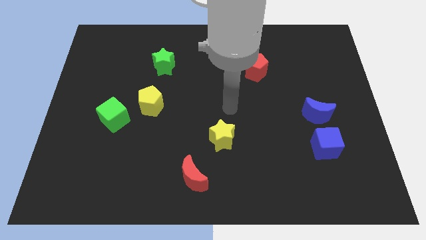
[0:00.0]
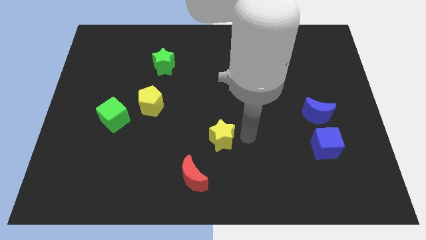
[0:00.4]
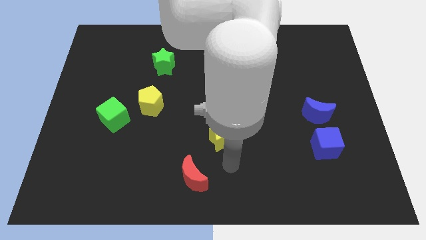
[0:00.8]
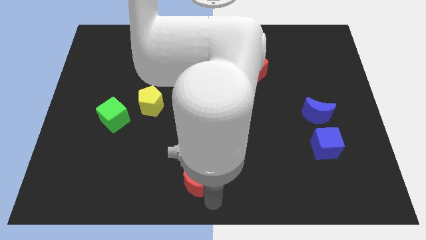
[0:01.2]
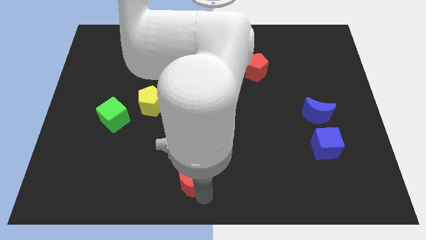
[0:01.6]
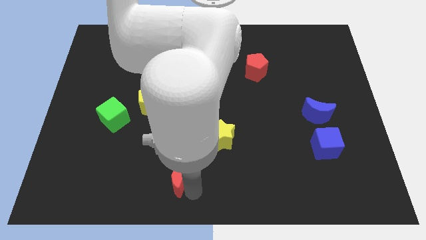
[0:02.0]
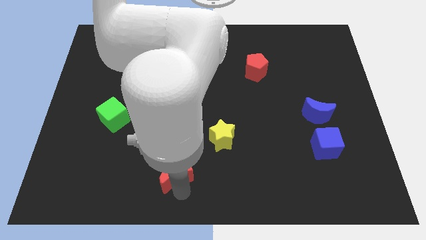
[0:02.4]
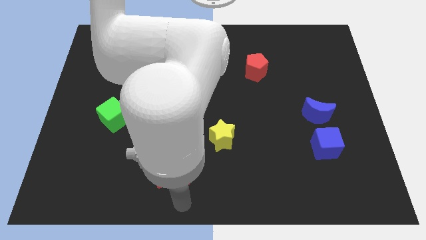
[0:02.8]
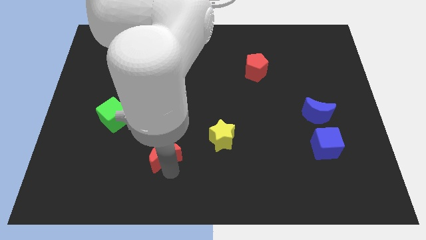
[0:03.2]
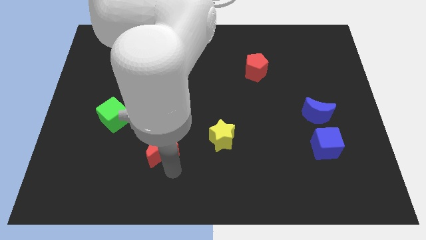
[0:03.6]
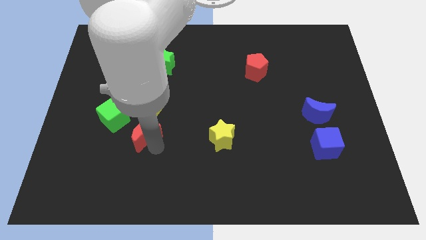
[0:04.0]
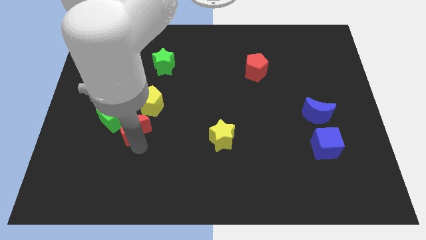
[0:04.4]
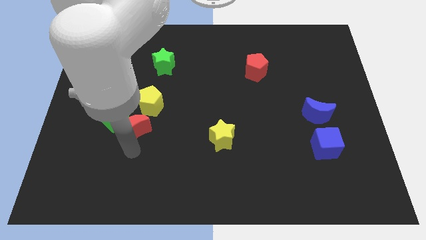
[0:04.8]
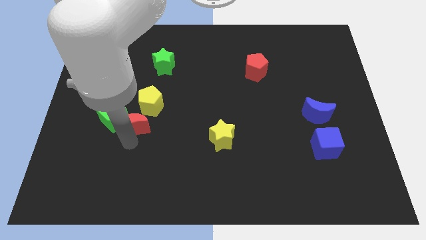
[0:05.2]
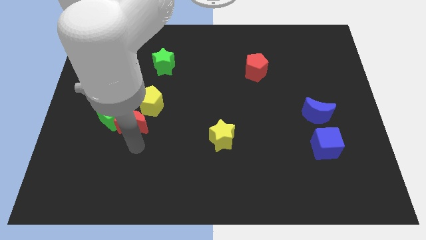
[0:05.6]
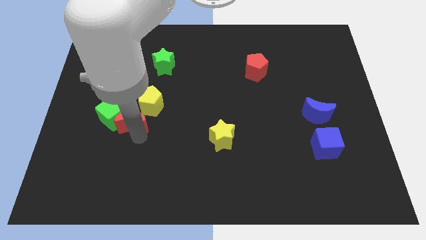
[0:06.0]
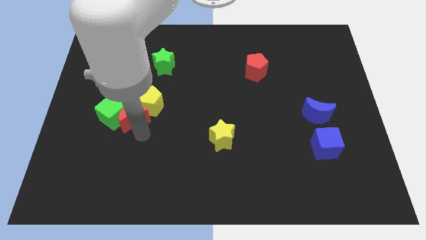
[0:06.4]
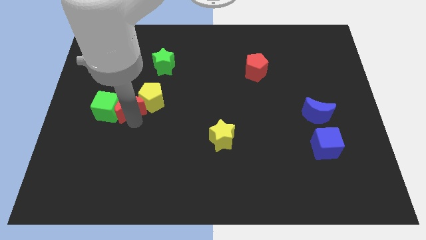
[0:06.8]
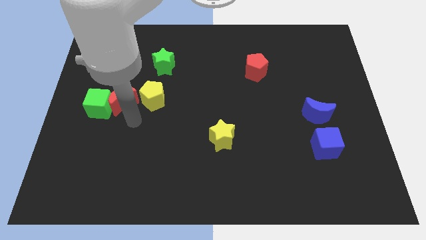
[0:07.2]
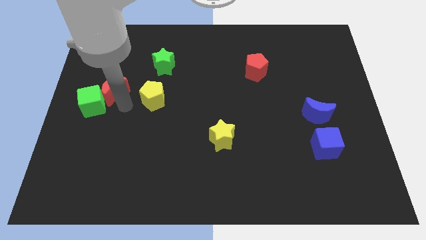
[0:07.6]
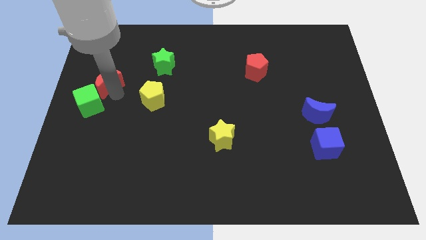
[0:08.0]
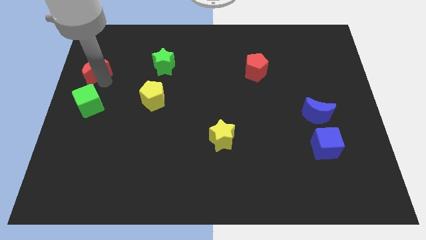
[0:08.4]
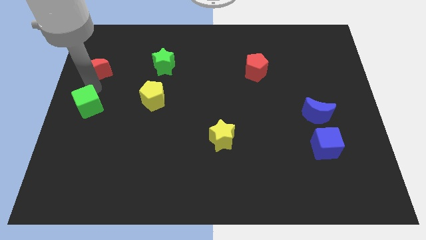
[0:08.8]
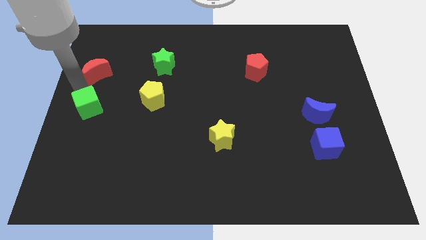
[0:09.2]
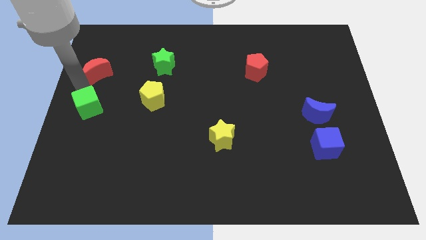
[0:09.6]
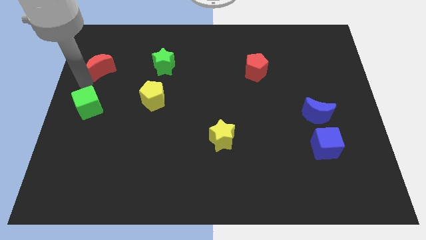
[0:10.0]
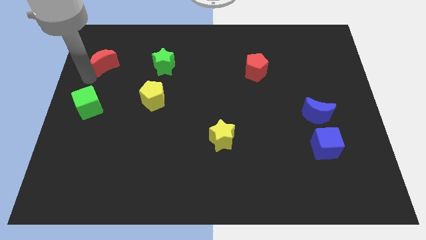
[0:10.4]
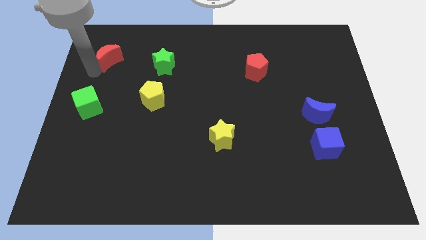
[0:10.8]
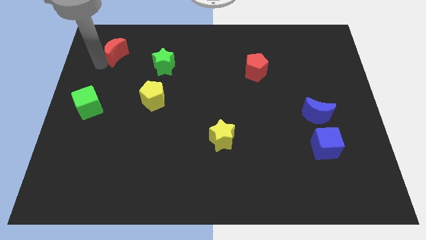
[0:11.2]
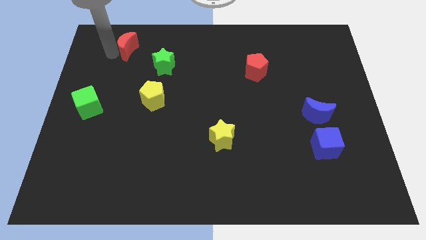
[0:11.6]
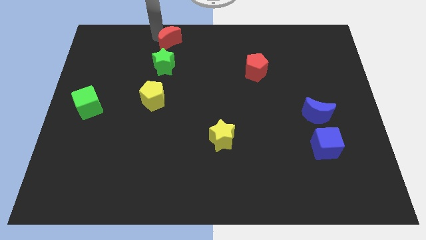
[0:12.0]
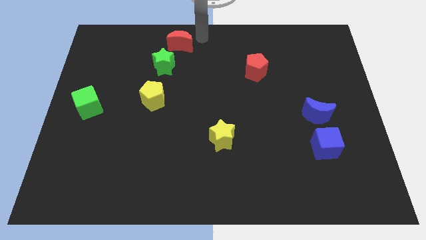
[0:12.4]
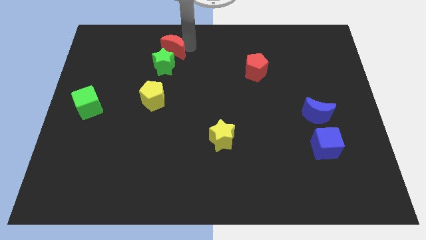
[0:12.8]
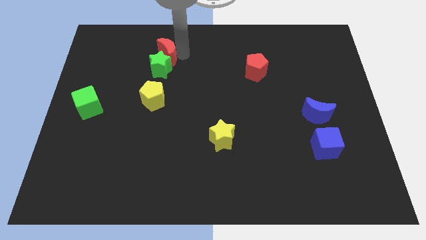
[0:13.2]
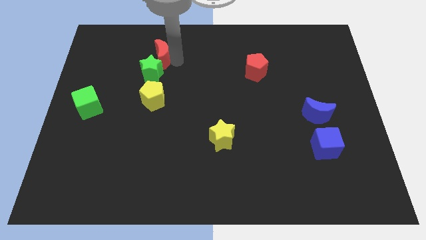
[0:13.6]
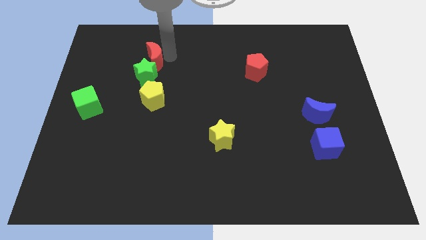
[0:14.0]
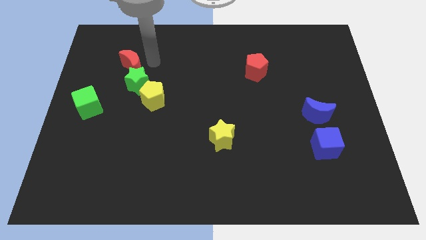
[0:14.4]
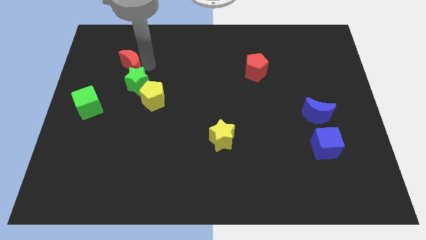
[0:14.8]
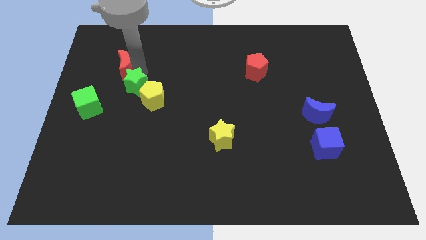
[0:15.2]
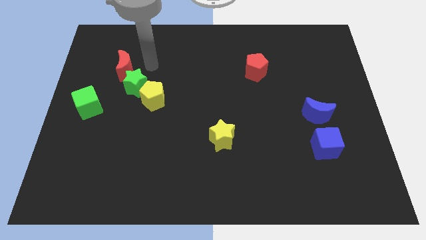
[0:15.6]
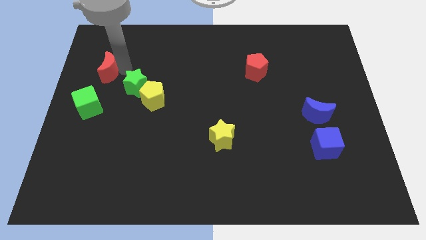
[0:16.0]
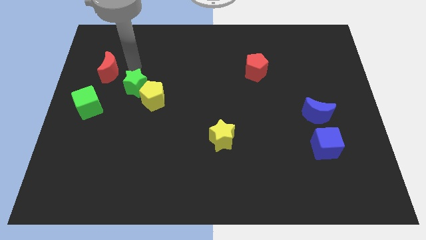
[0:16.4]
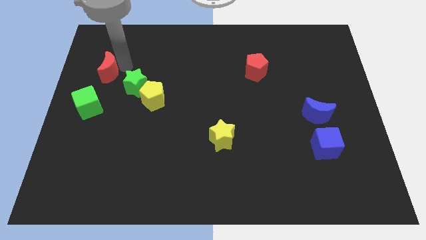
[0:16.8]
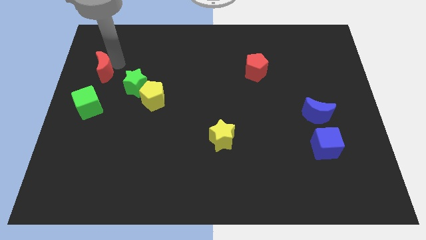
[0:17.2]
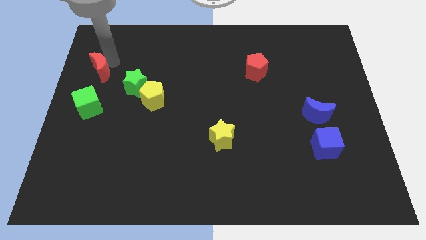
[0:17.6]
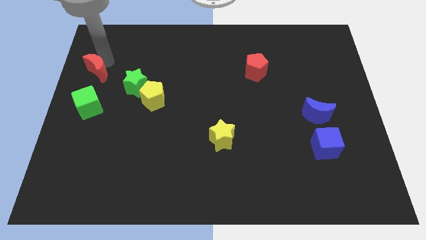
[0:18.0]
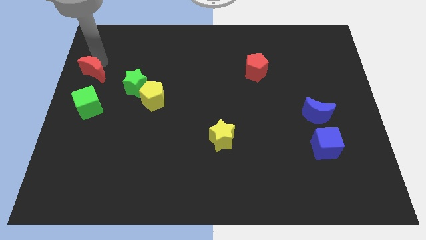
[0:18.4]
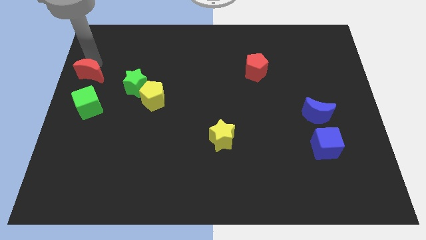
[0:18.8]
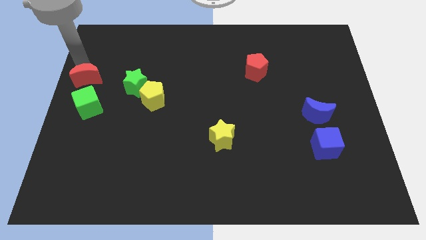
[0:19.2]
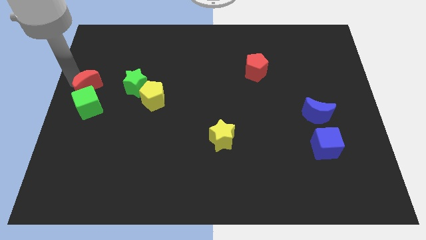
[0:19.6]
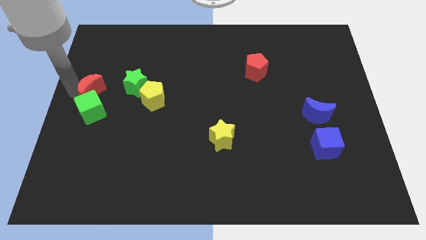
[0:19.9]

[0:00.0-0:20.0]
move the red moon above the green cube

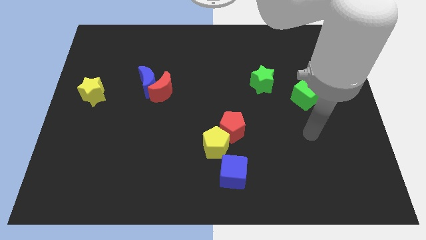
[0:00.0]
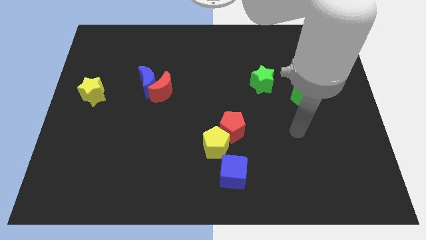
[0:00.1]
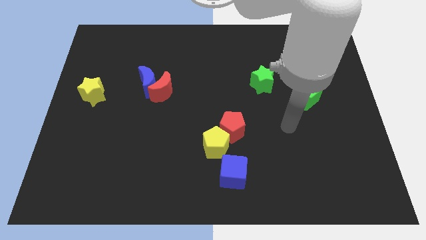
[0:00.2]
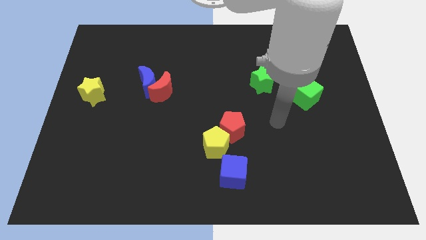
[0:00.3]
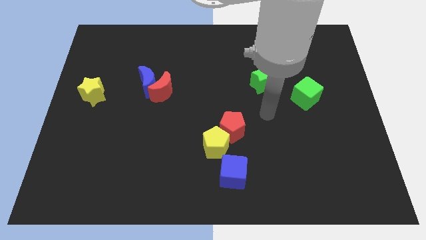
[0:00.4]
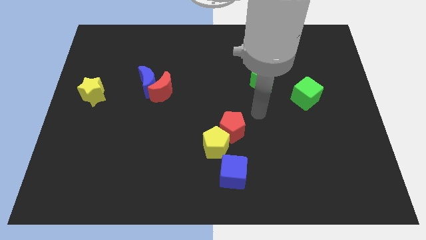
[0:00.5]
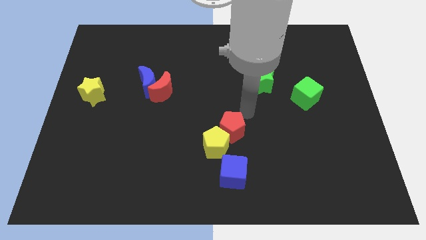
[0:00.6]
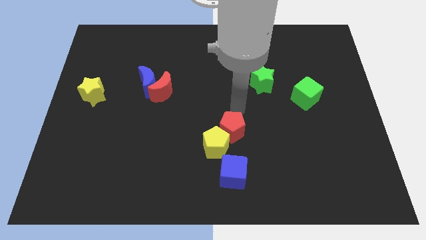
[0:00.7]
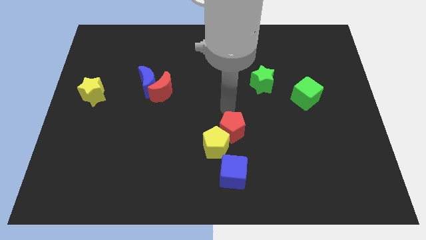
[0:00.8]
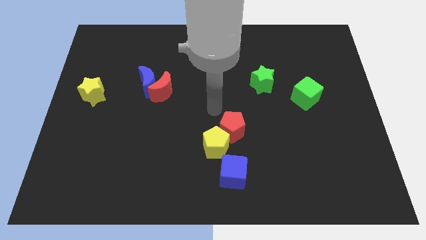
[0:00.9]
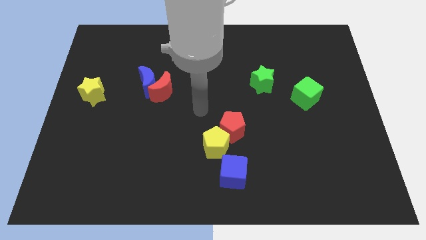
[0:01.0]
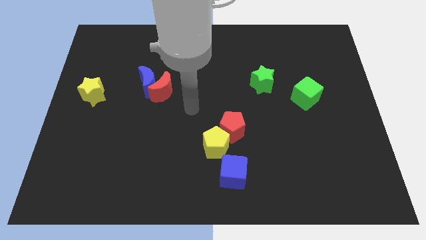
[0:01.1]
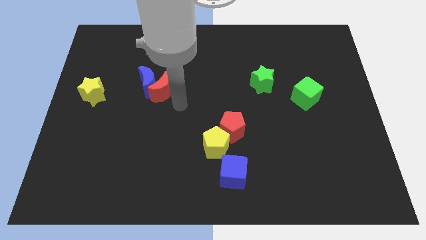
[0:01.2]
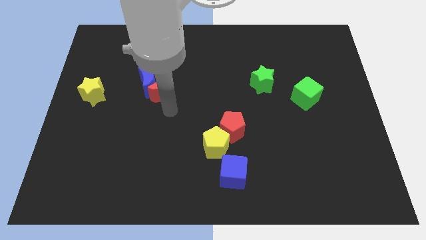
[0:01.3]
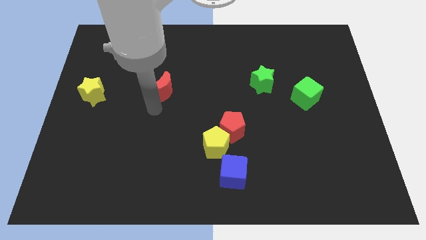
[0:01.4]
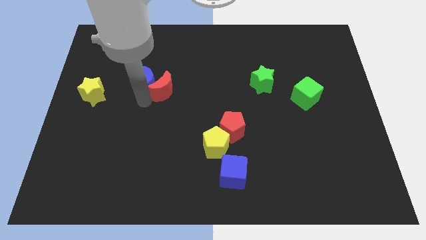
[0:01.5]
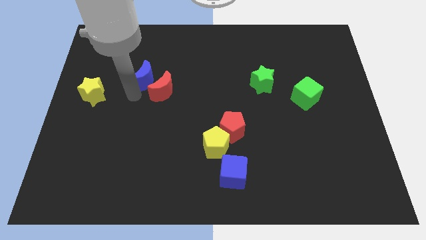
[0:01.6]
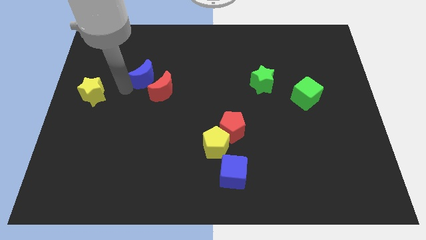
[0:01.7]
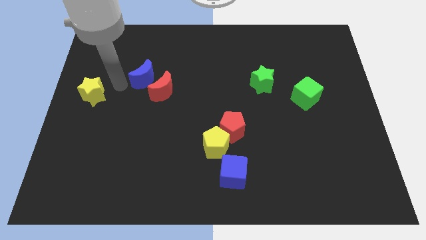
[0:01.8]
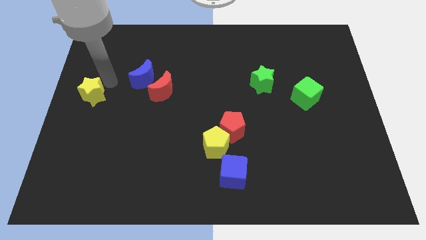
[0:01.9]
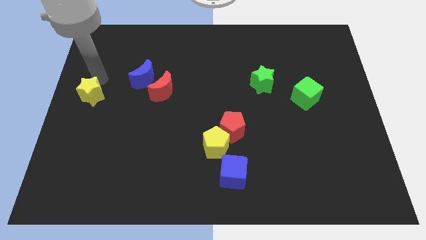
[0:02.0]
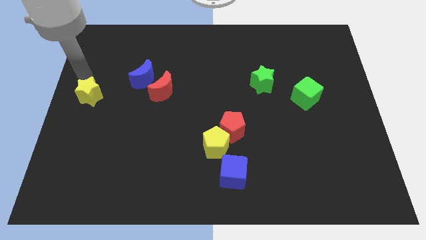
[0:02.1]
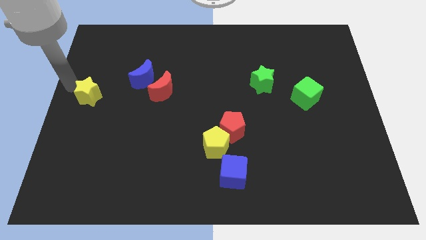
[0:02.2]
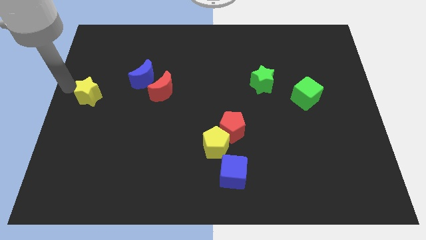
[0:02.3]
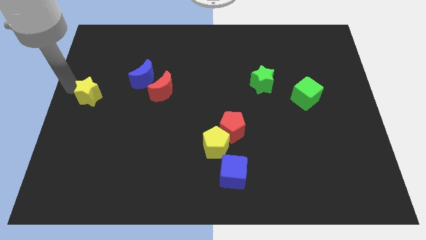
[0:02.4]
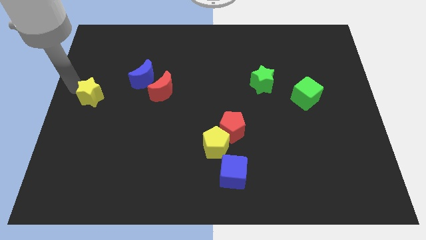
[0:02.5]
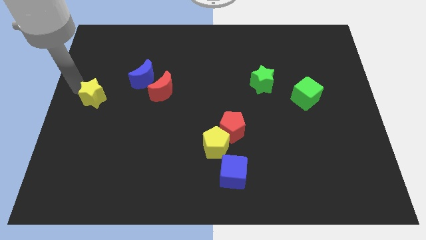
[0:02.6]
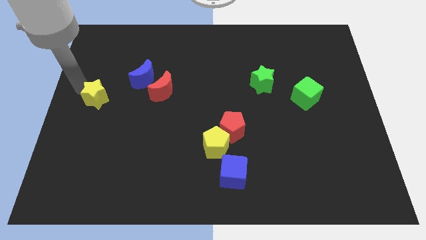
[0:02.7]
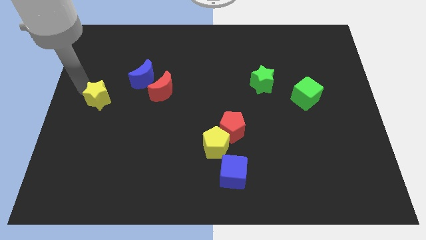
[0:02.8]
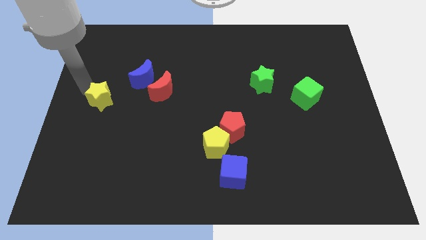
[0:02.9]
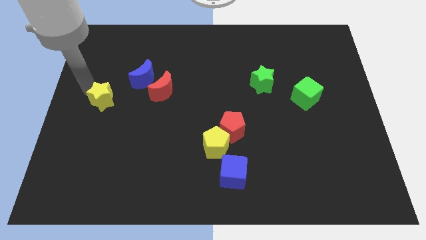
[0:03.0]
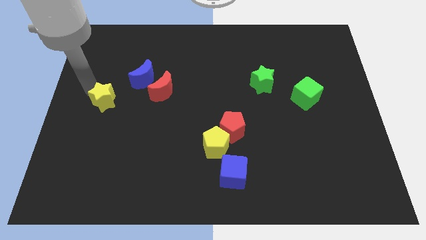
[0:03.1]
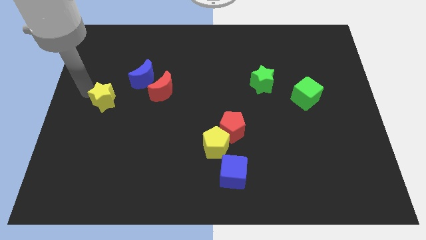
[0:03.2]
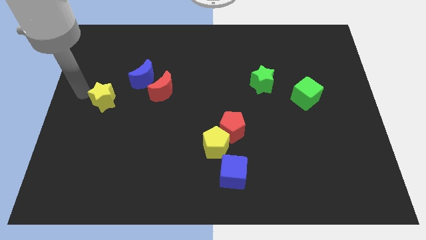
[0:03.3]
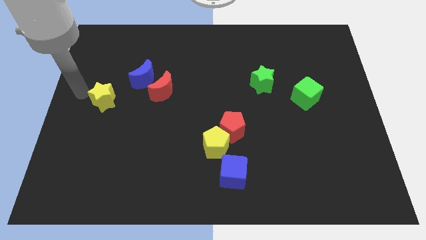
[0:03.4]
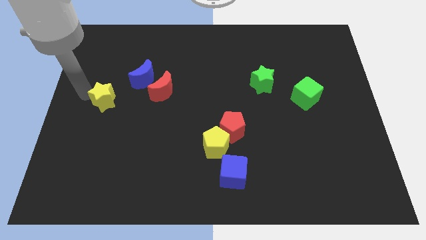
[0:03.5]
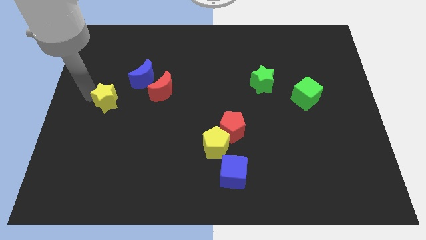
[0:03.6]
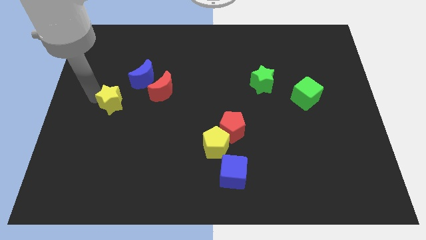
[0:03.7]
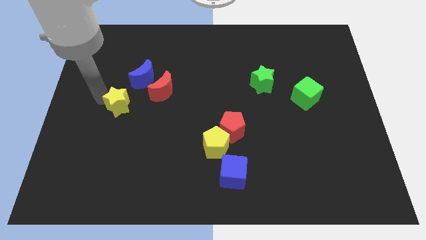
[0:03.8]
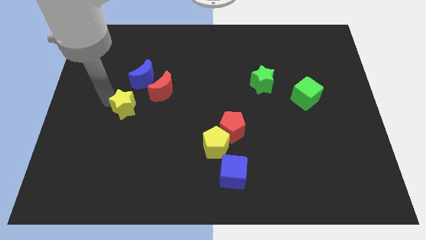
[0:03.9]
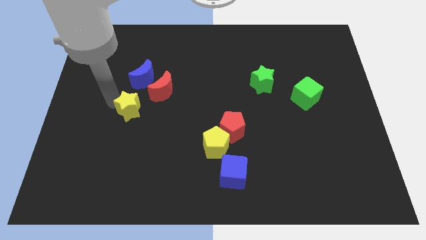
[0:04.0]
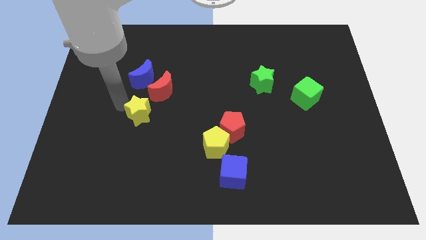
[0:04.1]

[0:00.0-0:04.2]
move the yellow star to the bottom of the red moon
